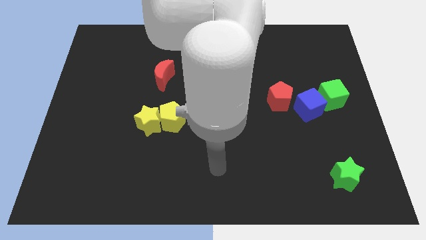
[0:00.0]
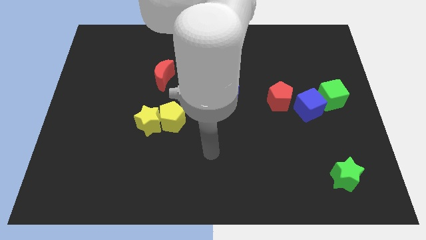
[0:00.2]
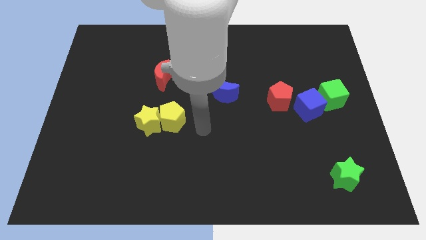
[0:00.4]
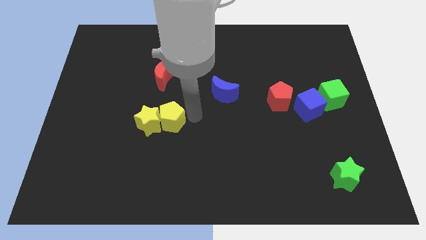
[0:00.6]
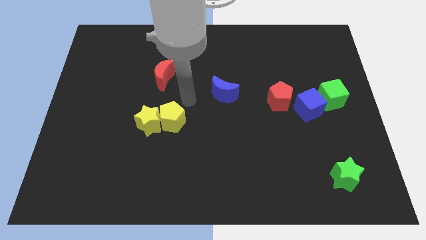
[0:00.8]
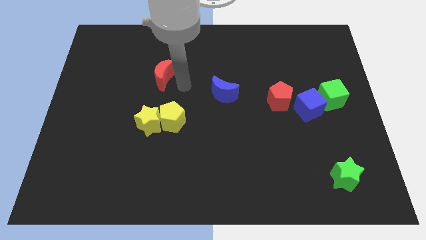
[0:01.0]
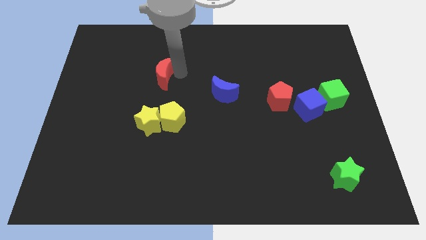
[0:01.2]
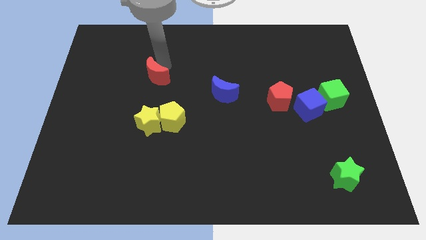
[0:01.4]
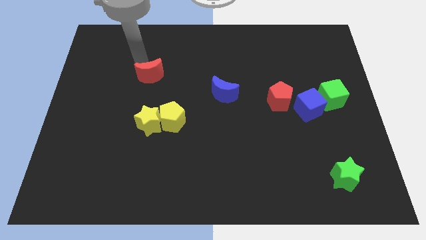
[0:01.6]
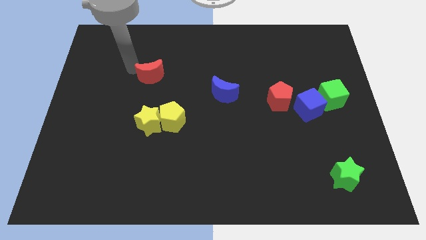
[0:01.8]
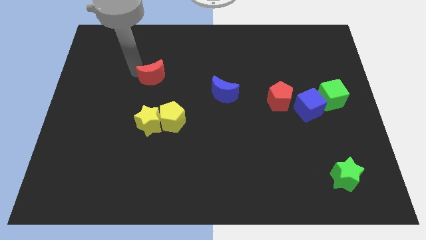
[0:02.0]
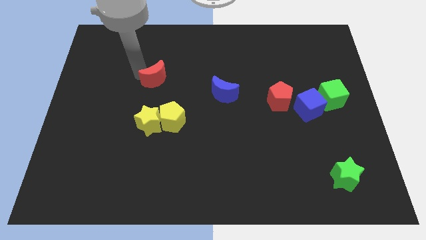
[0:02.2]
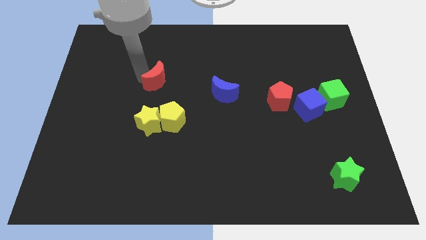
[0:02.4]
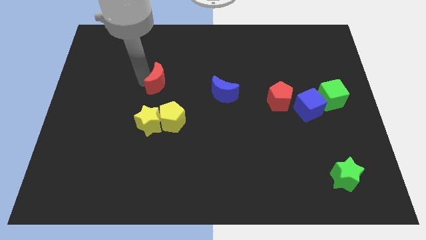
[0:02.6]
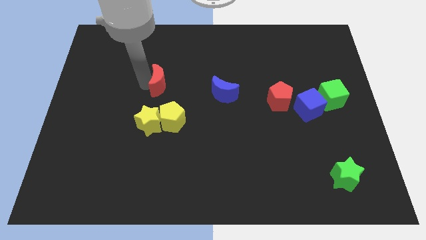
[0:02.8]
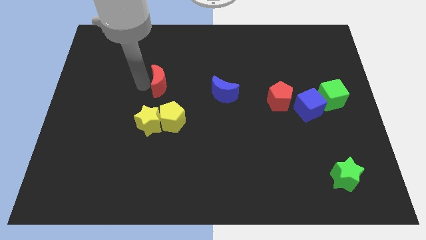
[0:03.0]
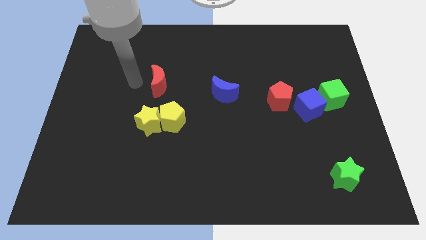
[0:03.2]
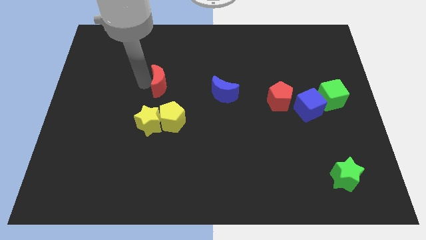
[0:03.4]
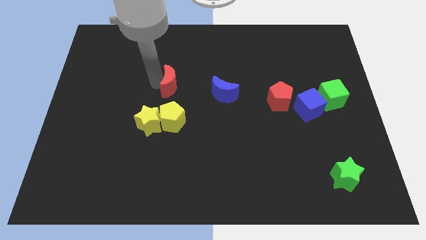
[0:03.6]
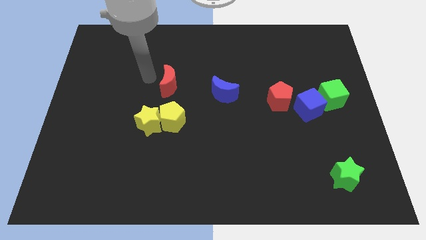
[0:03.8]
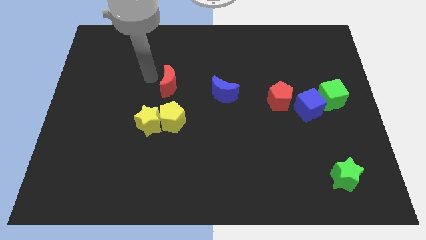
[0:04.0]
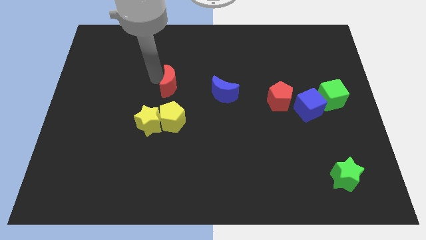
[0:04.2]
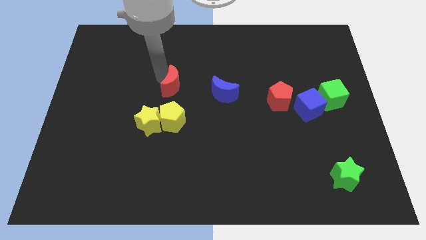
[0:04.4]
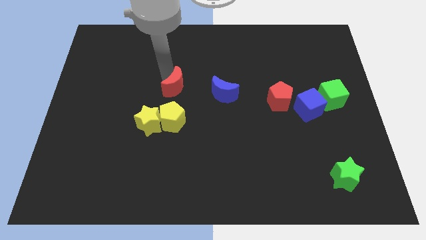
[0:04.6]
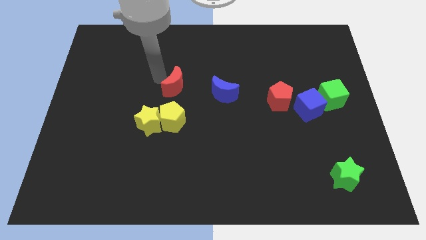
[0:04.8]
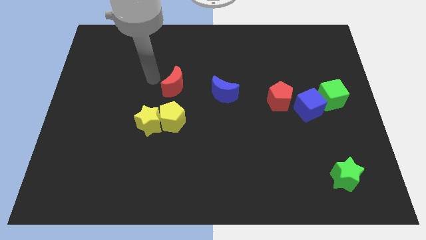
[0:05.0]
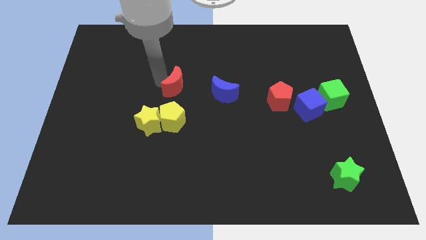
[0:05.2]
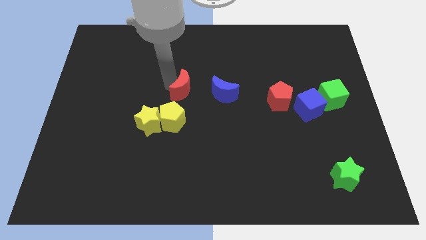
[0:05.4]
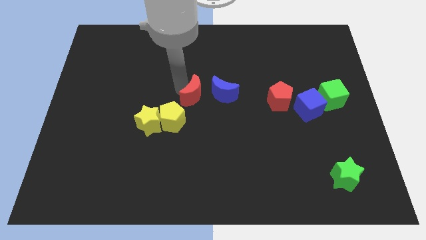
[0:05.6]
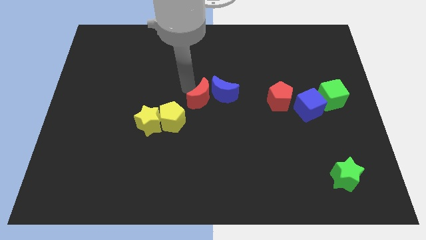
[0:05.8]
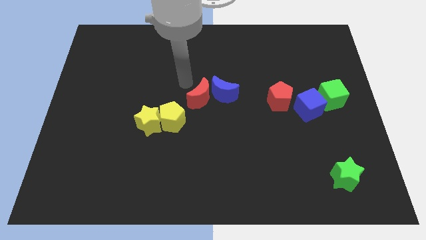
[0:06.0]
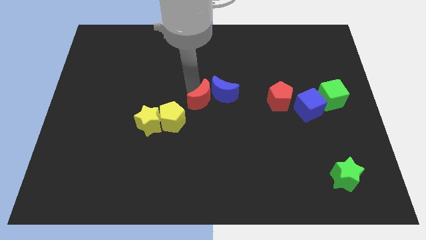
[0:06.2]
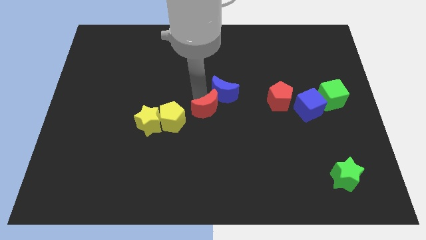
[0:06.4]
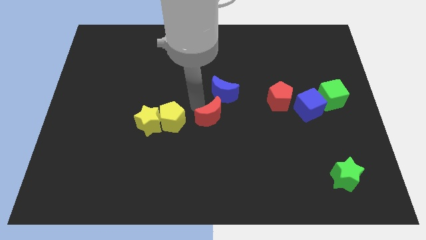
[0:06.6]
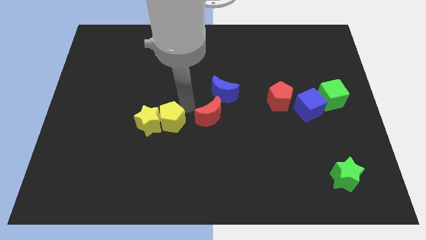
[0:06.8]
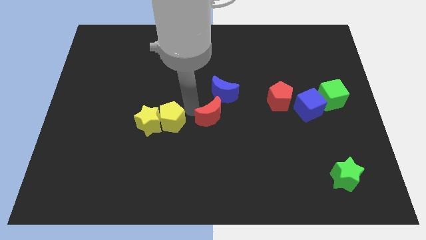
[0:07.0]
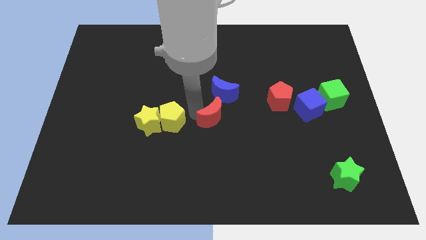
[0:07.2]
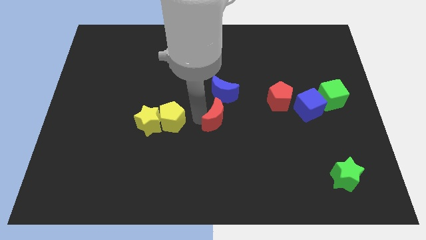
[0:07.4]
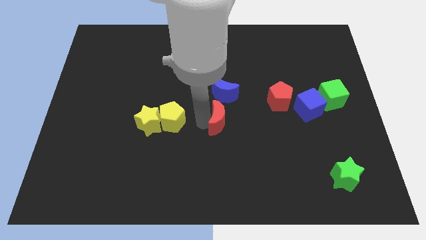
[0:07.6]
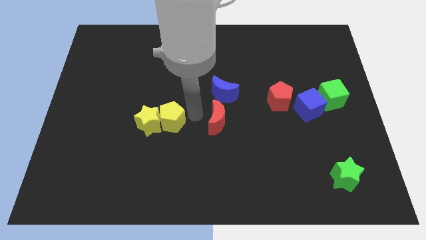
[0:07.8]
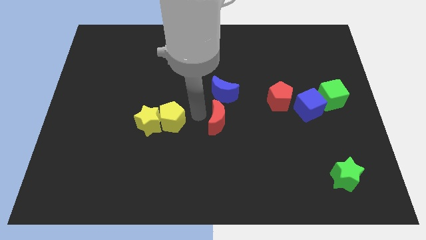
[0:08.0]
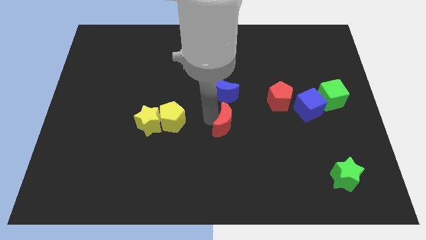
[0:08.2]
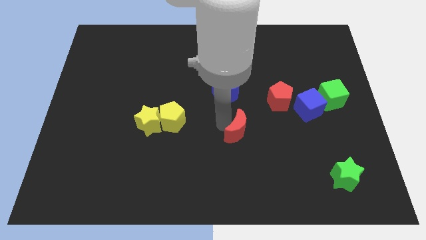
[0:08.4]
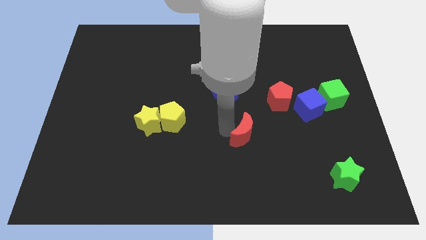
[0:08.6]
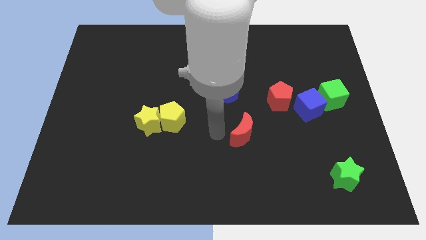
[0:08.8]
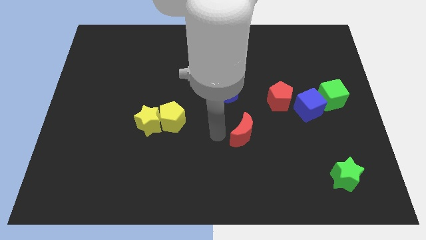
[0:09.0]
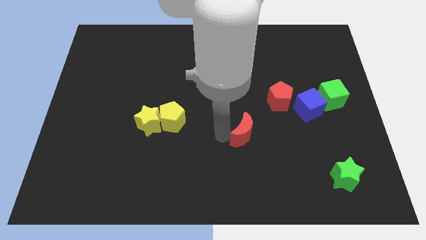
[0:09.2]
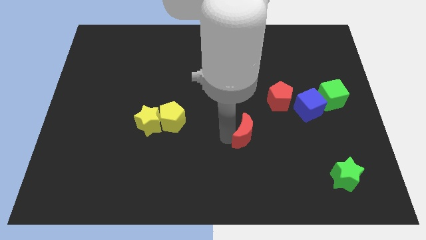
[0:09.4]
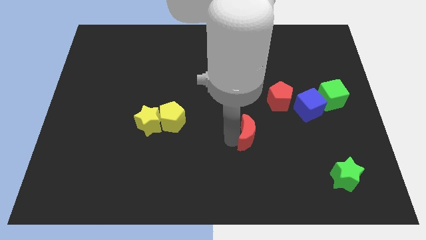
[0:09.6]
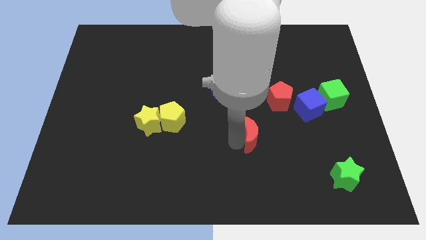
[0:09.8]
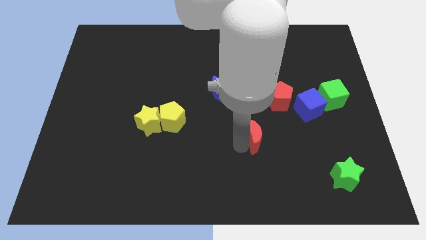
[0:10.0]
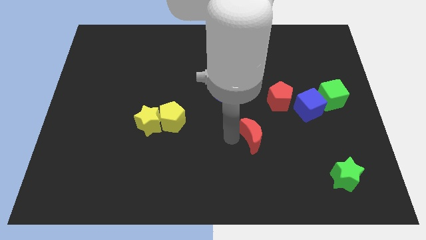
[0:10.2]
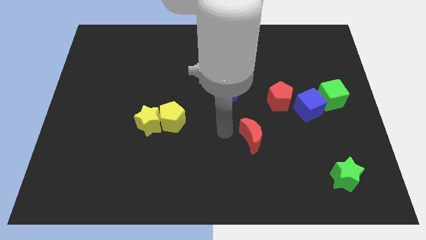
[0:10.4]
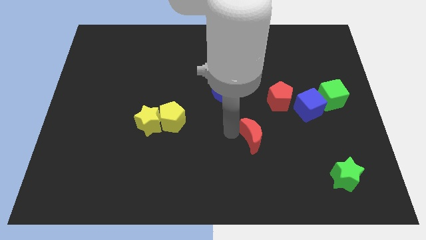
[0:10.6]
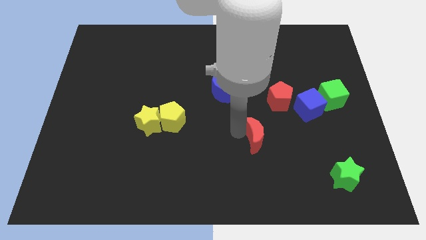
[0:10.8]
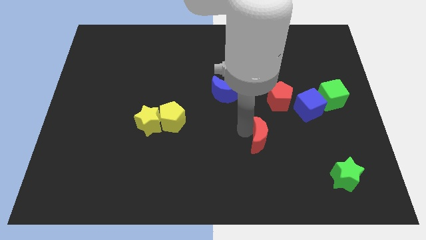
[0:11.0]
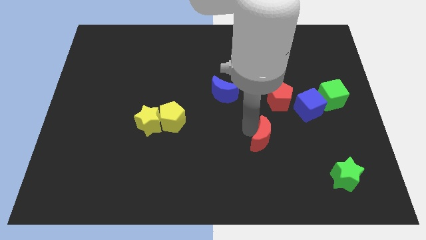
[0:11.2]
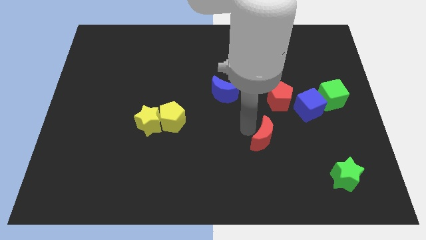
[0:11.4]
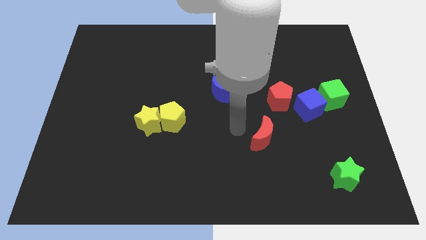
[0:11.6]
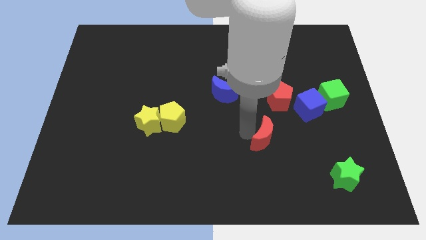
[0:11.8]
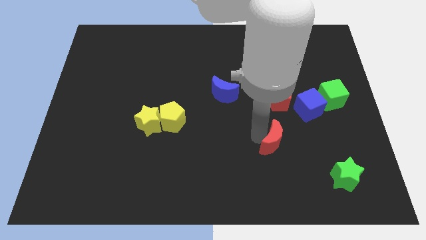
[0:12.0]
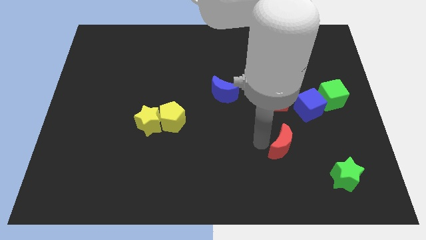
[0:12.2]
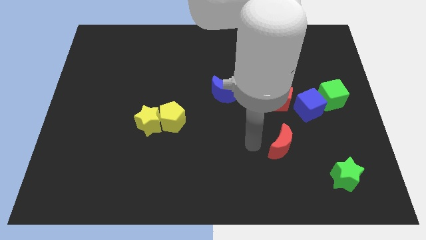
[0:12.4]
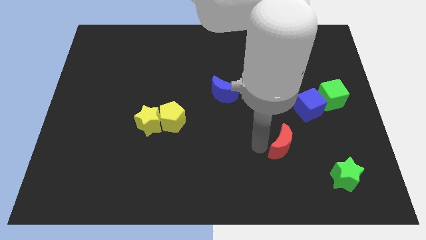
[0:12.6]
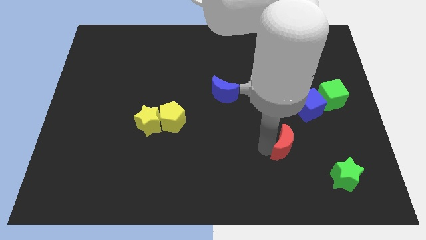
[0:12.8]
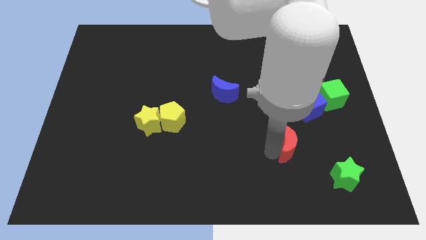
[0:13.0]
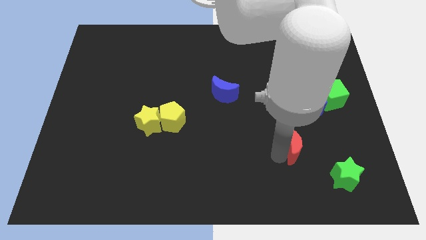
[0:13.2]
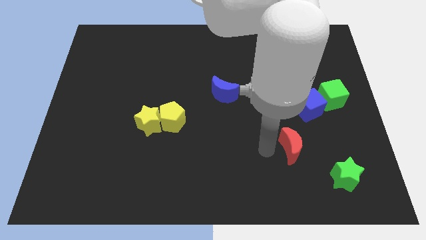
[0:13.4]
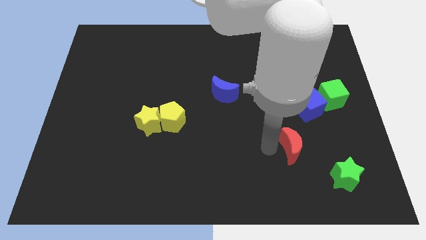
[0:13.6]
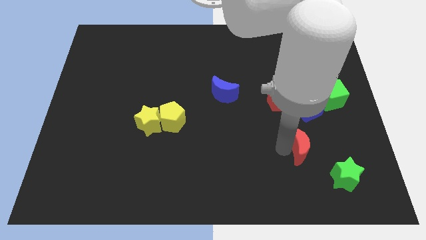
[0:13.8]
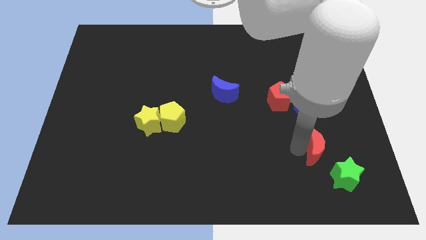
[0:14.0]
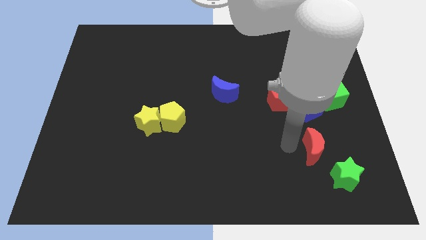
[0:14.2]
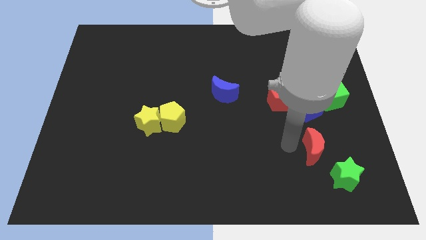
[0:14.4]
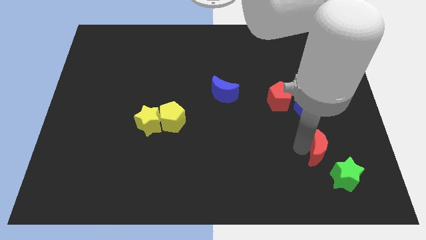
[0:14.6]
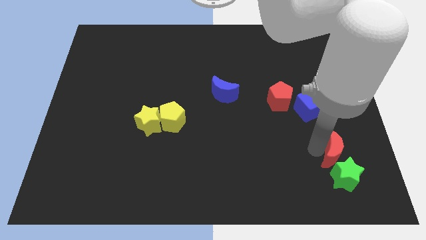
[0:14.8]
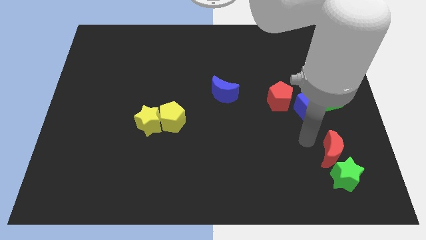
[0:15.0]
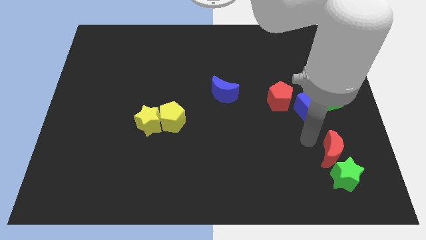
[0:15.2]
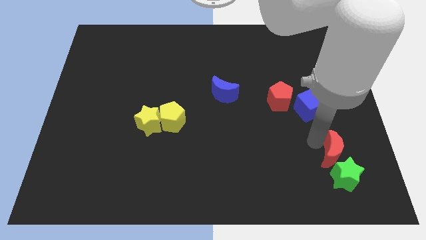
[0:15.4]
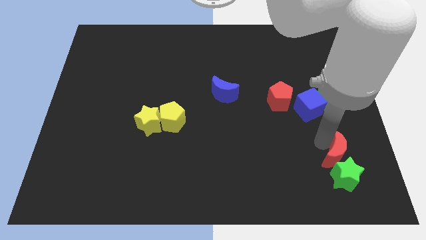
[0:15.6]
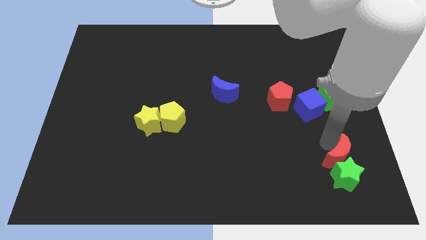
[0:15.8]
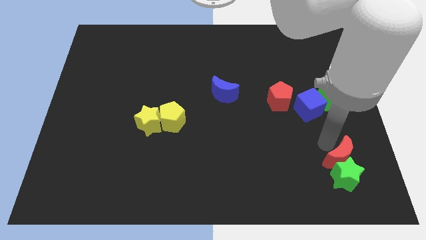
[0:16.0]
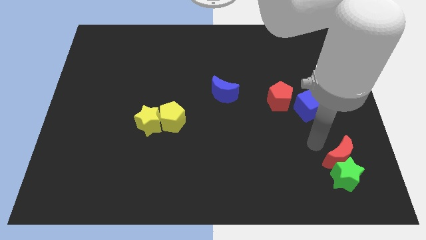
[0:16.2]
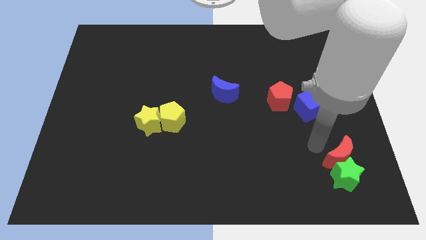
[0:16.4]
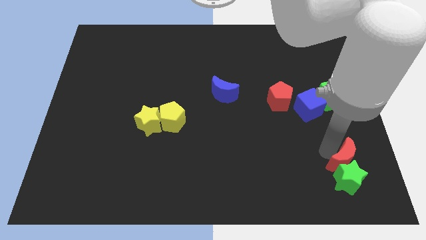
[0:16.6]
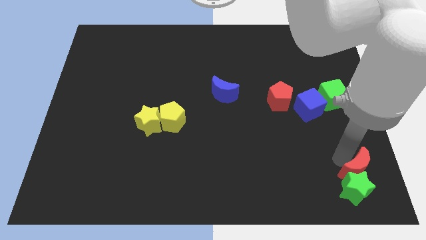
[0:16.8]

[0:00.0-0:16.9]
move the red moon to the bottom right corner
